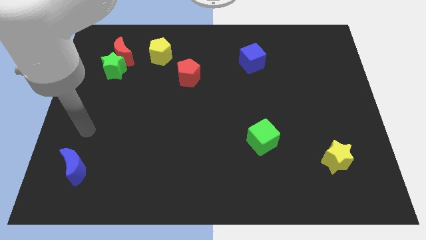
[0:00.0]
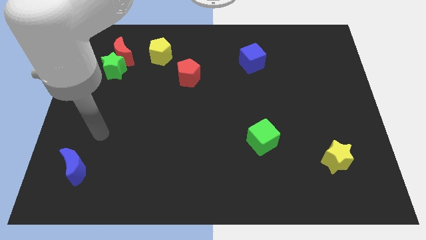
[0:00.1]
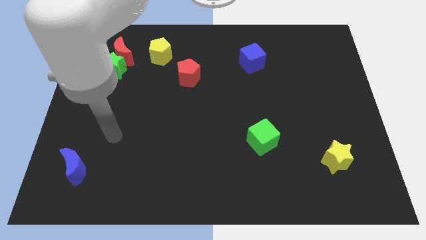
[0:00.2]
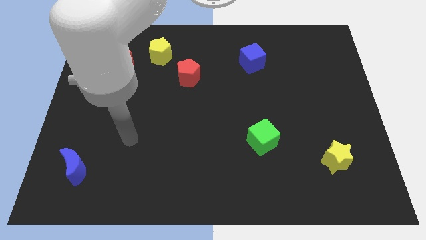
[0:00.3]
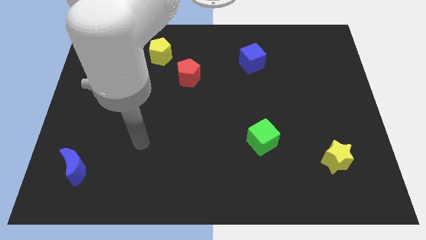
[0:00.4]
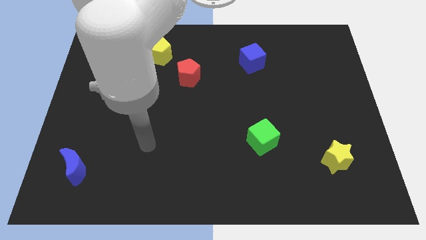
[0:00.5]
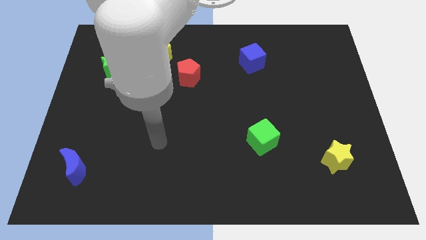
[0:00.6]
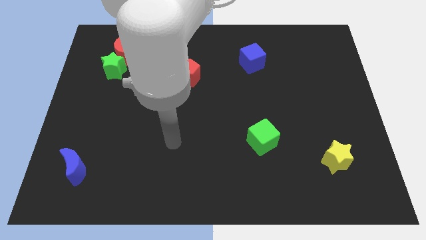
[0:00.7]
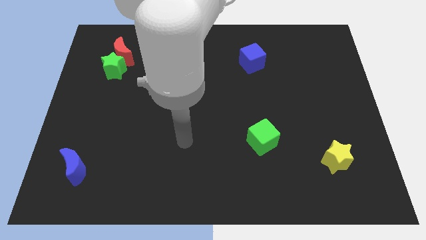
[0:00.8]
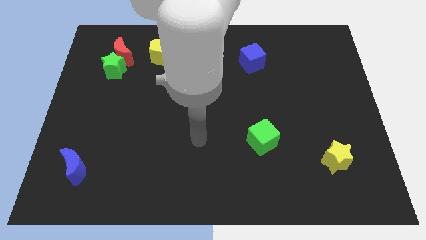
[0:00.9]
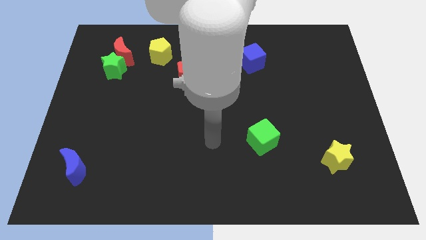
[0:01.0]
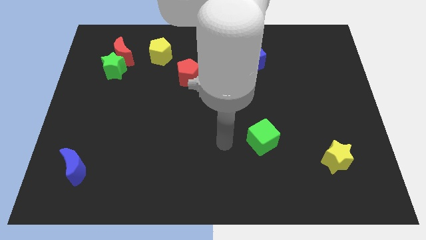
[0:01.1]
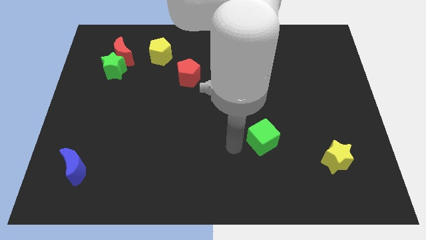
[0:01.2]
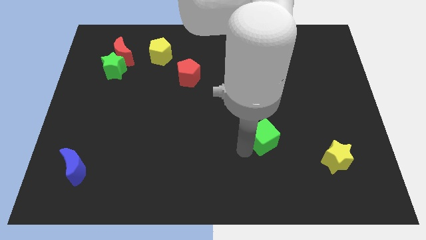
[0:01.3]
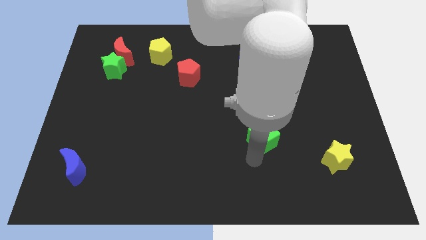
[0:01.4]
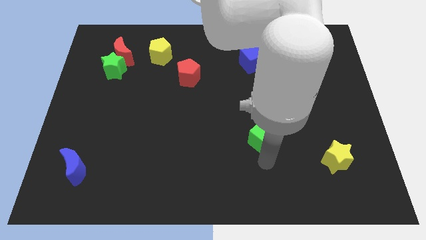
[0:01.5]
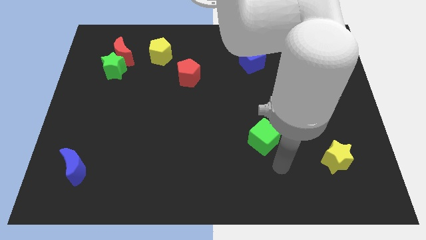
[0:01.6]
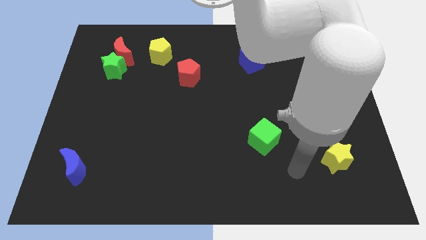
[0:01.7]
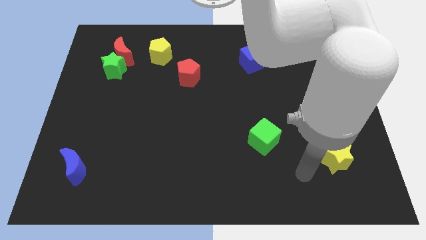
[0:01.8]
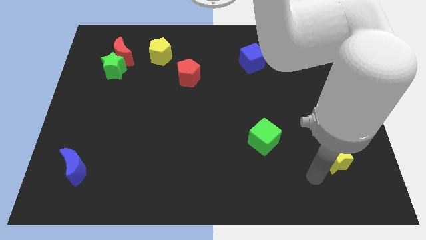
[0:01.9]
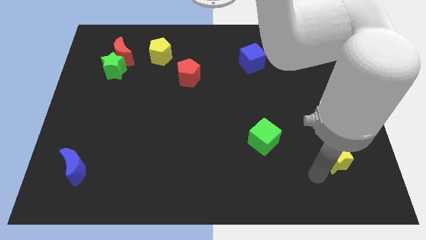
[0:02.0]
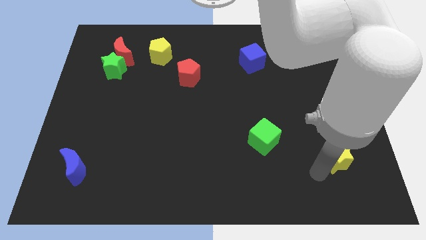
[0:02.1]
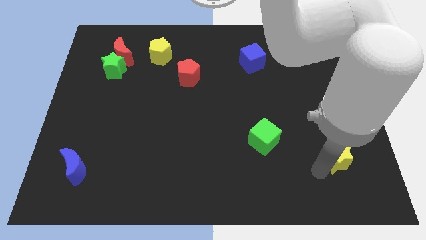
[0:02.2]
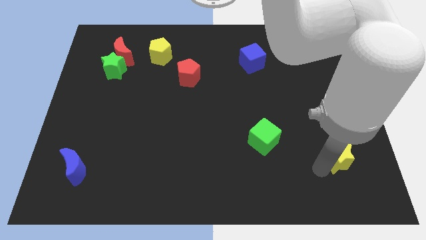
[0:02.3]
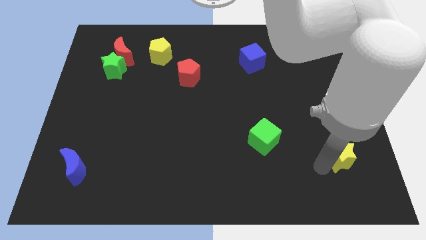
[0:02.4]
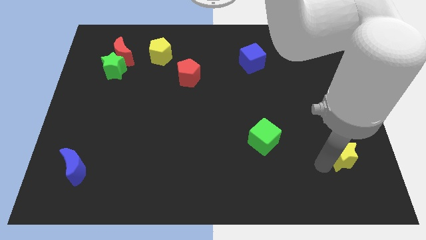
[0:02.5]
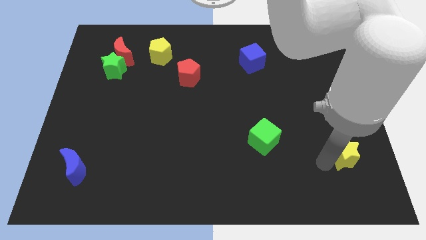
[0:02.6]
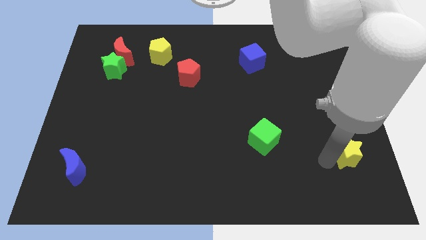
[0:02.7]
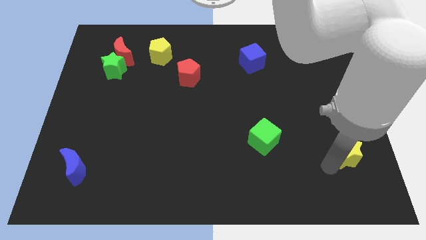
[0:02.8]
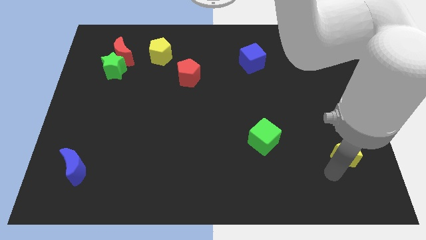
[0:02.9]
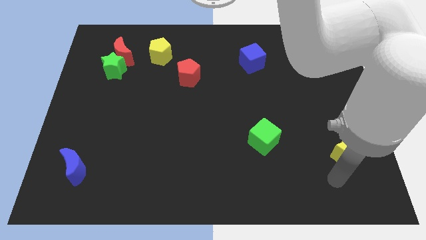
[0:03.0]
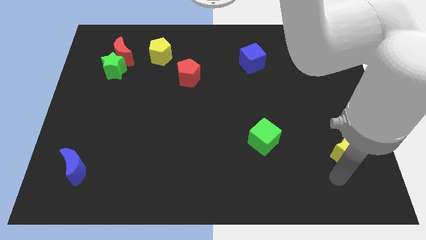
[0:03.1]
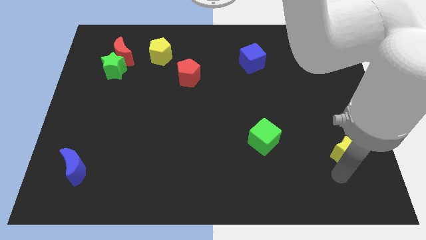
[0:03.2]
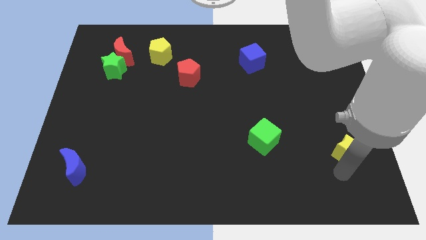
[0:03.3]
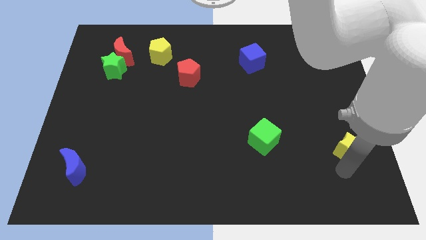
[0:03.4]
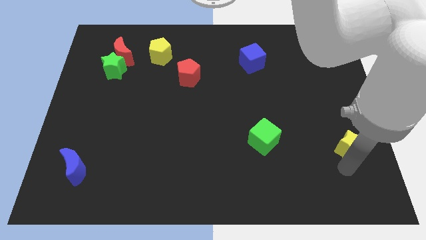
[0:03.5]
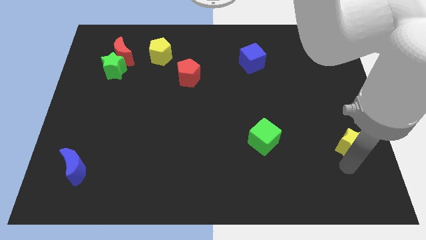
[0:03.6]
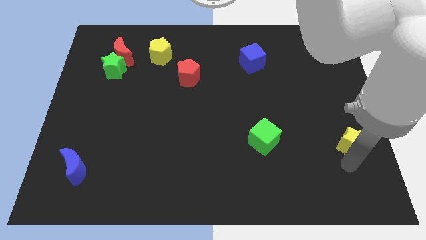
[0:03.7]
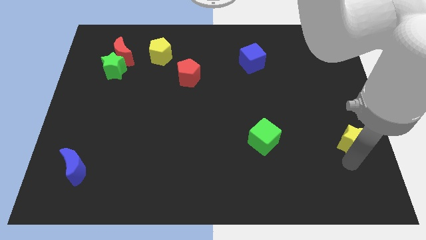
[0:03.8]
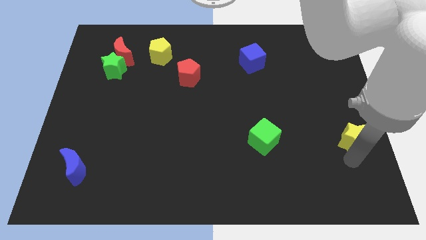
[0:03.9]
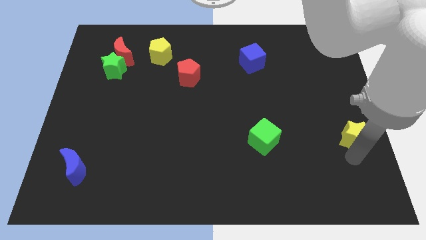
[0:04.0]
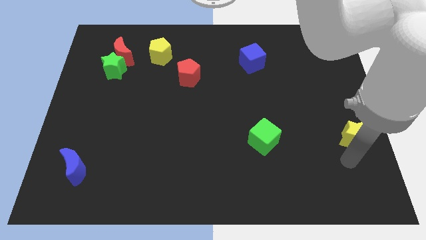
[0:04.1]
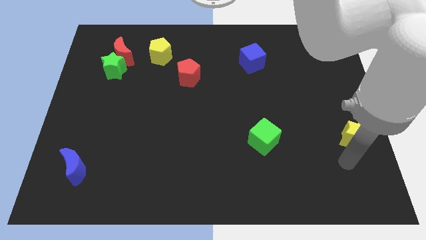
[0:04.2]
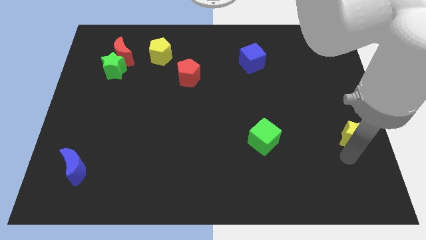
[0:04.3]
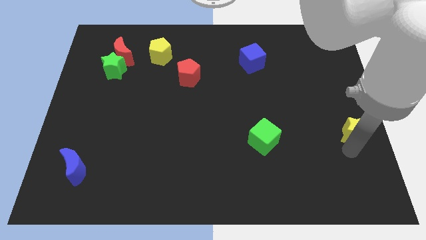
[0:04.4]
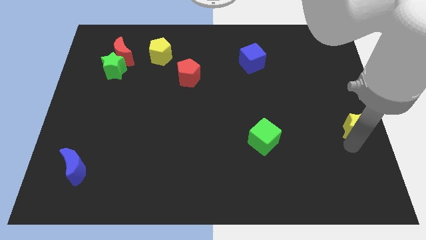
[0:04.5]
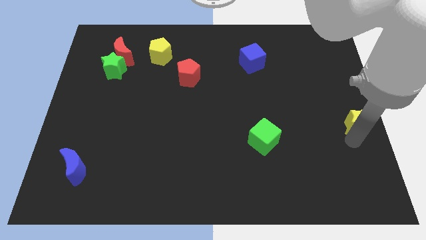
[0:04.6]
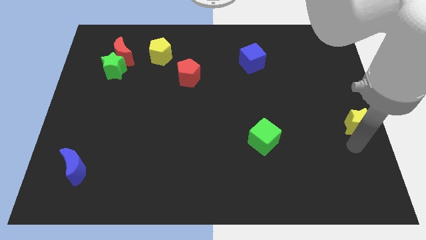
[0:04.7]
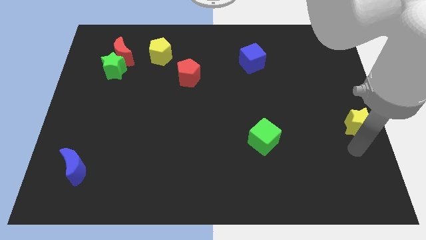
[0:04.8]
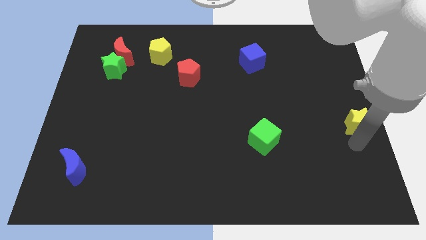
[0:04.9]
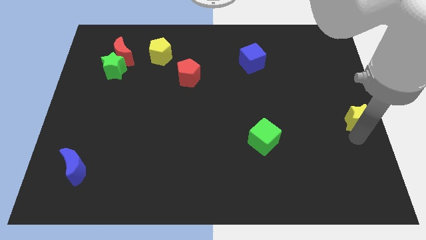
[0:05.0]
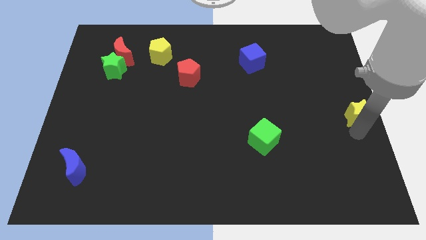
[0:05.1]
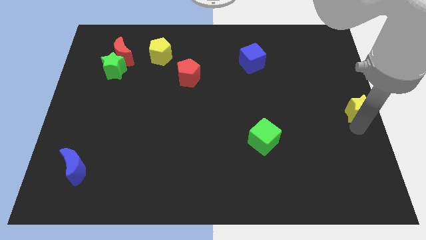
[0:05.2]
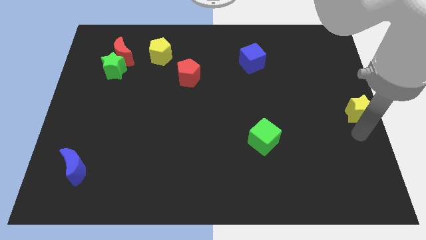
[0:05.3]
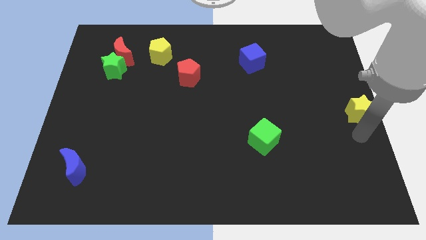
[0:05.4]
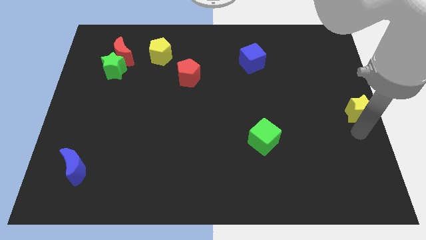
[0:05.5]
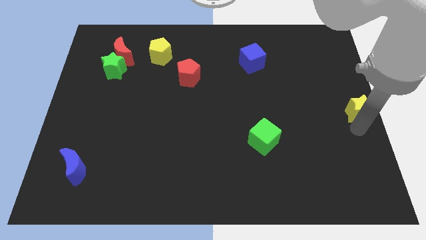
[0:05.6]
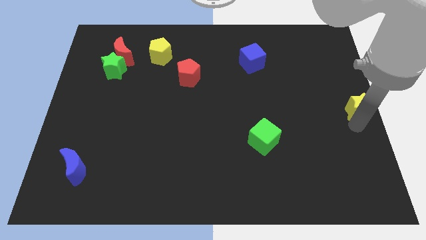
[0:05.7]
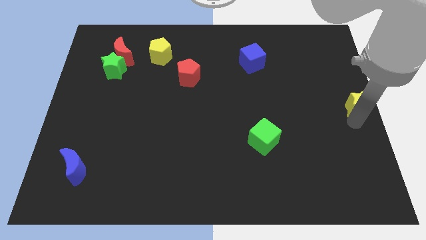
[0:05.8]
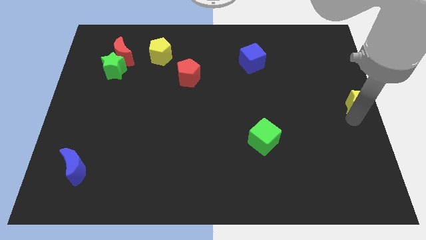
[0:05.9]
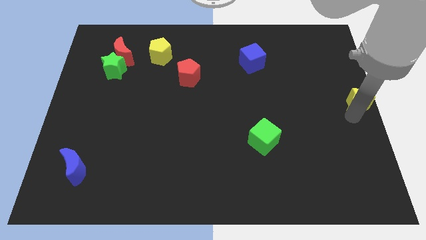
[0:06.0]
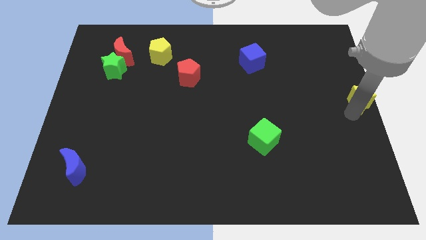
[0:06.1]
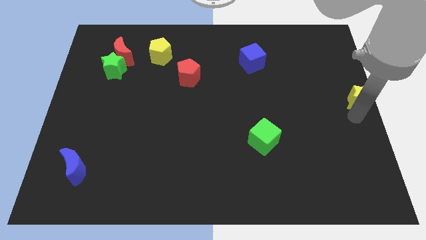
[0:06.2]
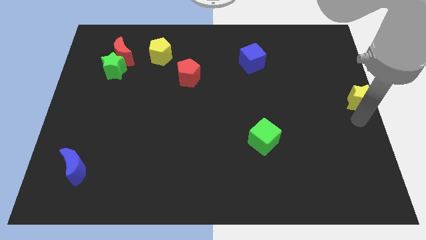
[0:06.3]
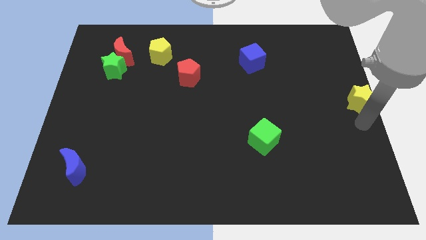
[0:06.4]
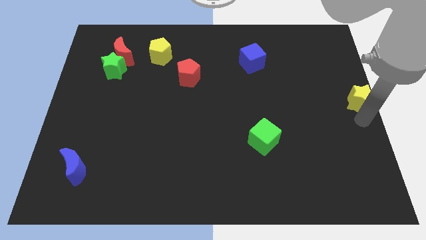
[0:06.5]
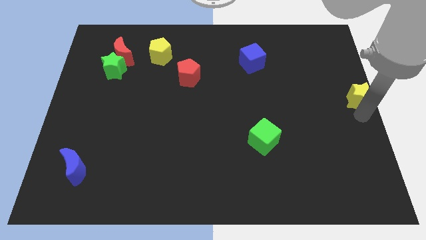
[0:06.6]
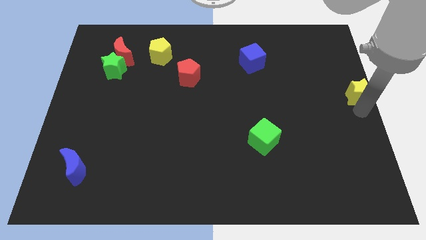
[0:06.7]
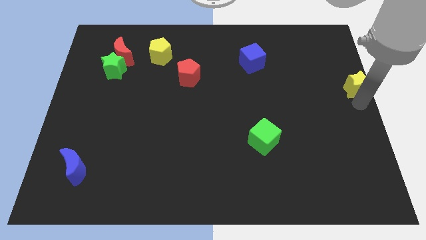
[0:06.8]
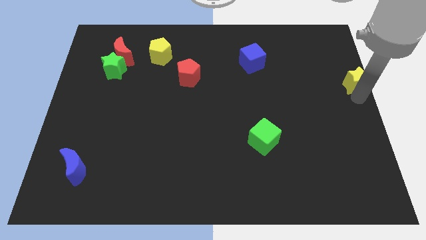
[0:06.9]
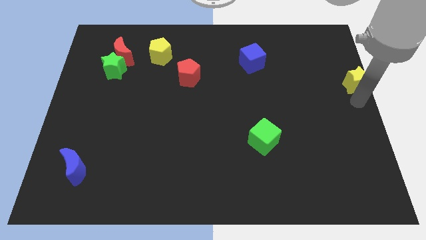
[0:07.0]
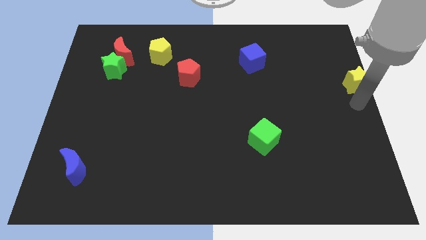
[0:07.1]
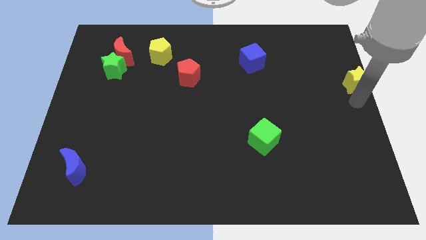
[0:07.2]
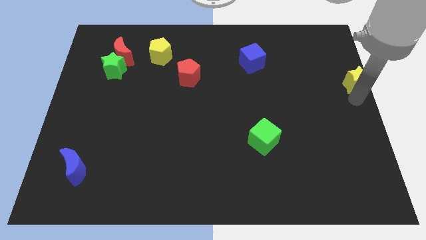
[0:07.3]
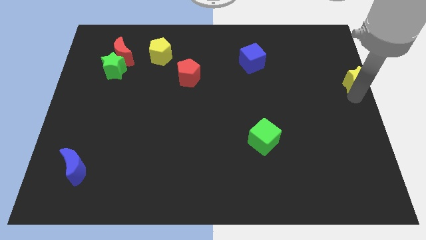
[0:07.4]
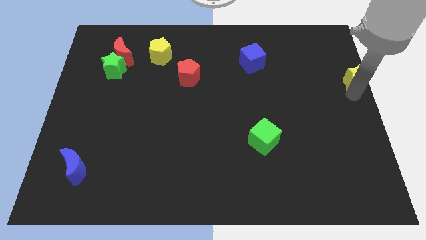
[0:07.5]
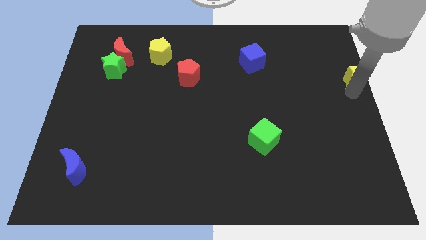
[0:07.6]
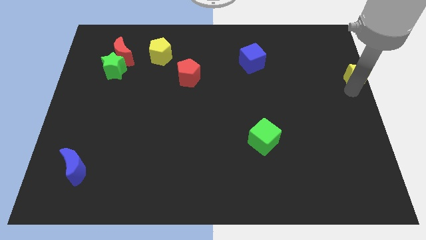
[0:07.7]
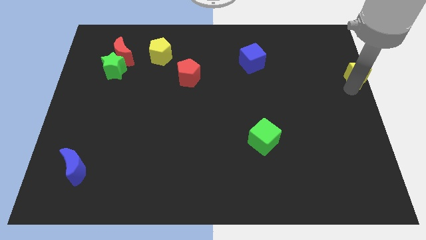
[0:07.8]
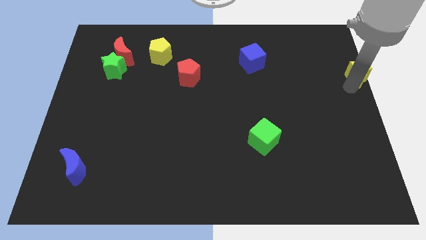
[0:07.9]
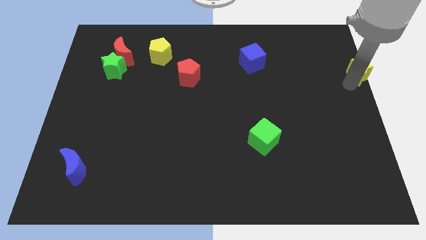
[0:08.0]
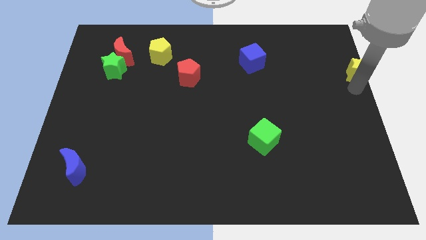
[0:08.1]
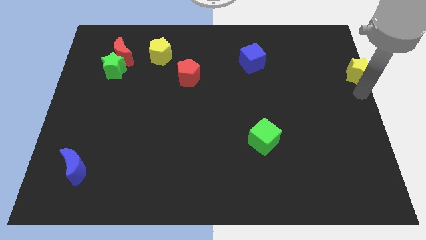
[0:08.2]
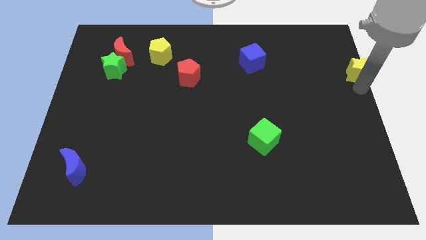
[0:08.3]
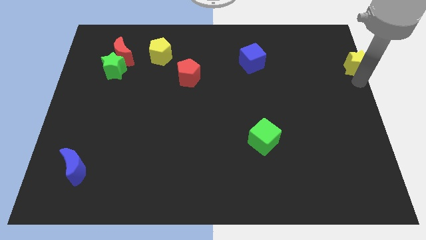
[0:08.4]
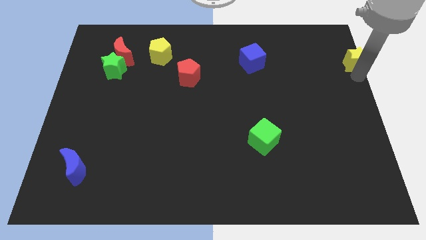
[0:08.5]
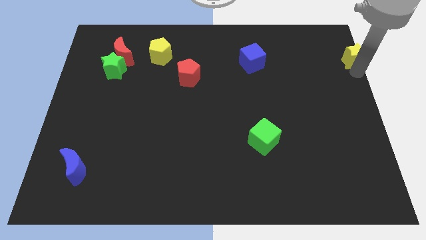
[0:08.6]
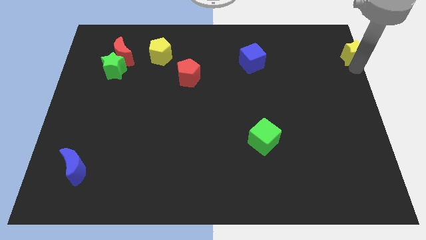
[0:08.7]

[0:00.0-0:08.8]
push the yellow star to the top right of the board
